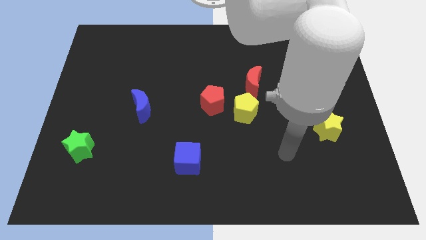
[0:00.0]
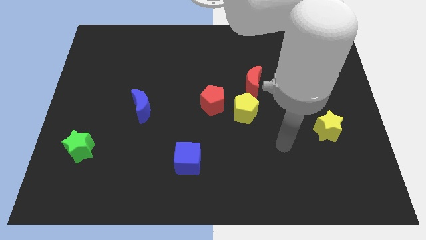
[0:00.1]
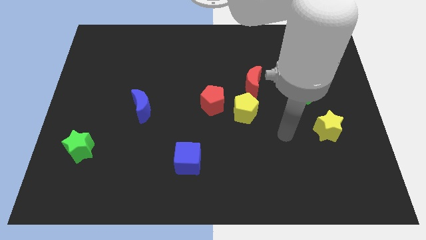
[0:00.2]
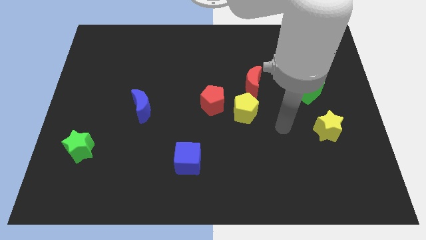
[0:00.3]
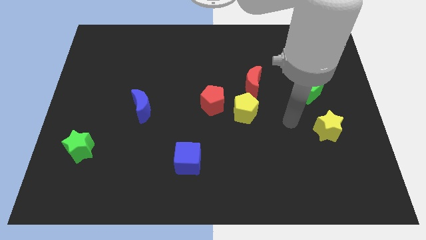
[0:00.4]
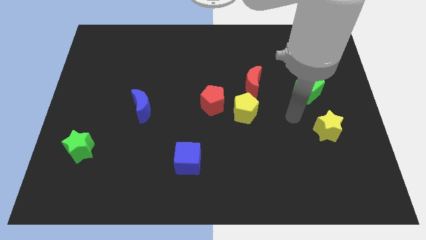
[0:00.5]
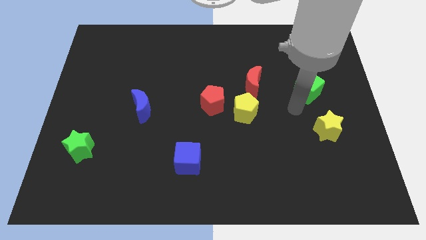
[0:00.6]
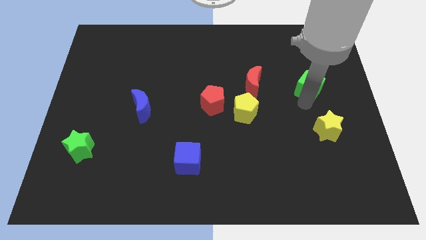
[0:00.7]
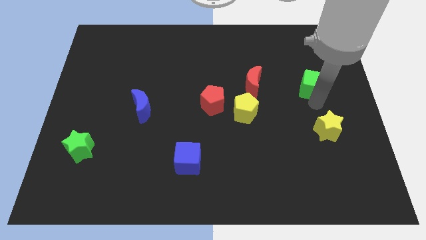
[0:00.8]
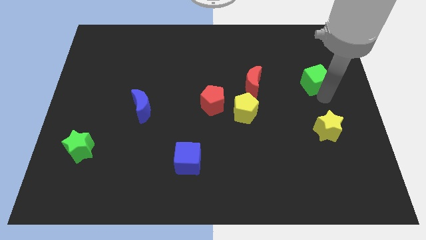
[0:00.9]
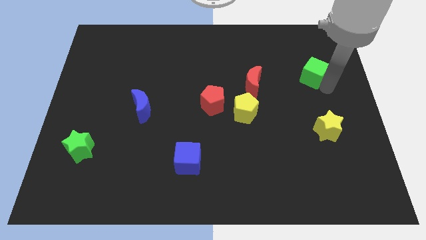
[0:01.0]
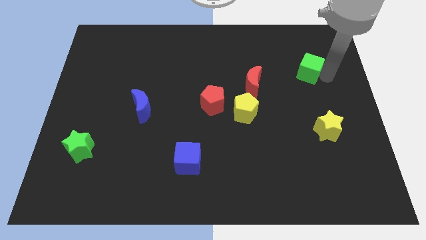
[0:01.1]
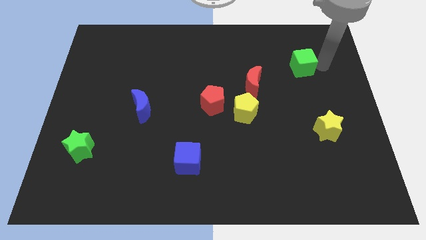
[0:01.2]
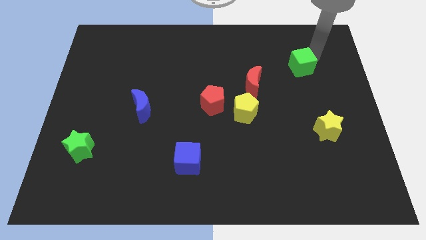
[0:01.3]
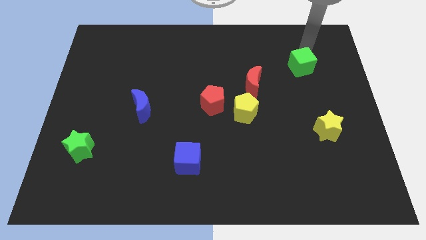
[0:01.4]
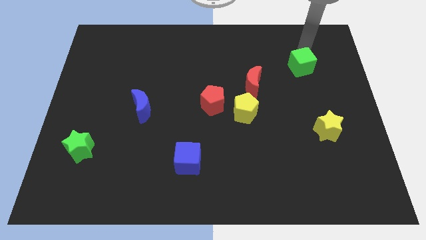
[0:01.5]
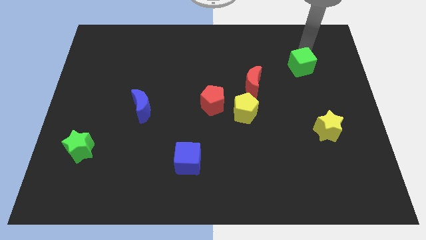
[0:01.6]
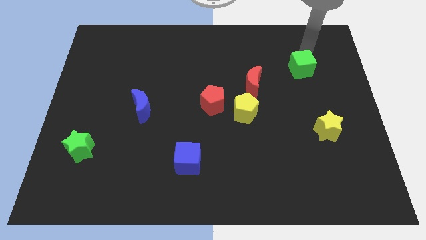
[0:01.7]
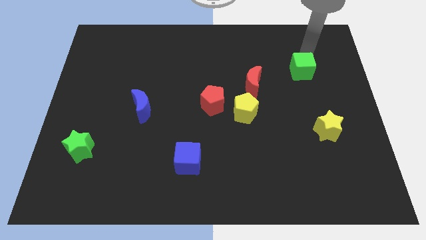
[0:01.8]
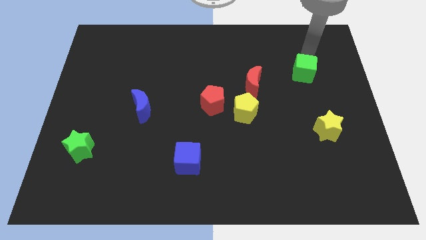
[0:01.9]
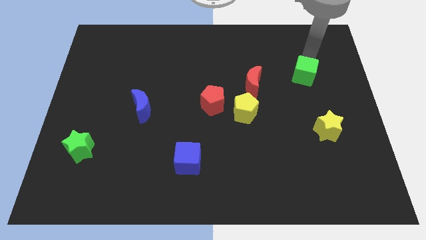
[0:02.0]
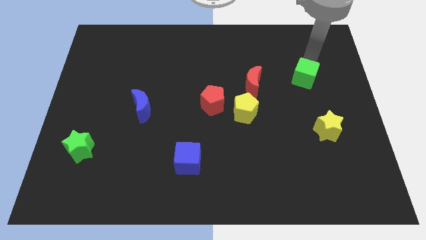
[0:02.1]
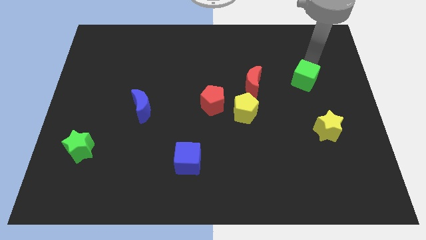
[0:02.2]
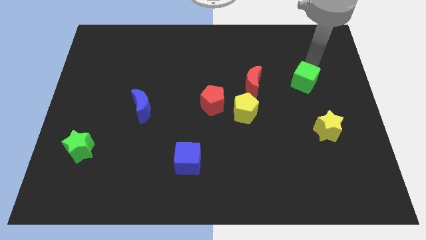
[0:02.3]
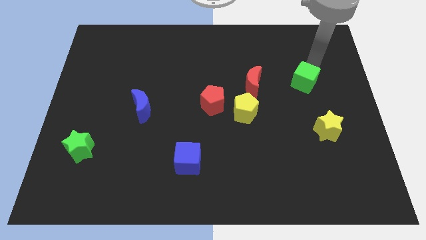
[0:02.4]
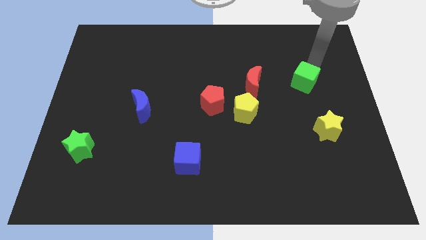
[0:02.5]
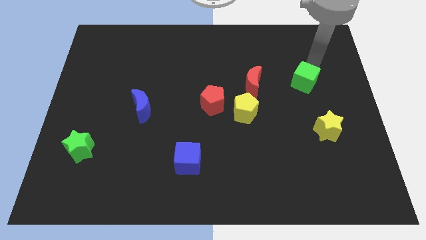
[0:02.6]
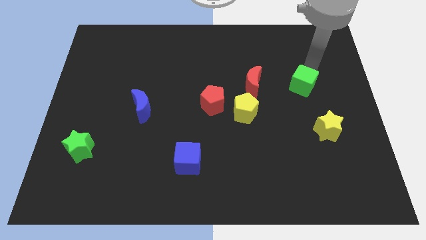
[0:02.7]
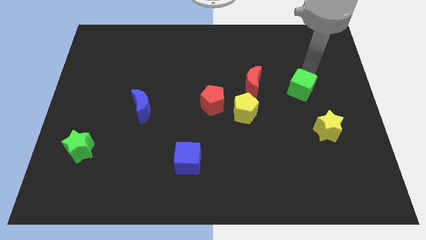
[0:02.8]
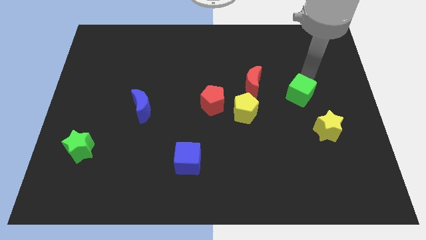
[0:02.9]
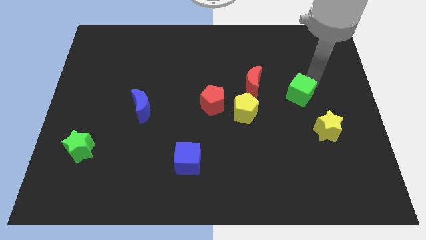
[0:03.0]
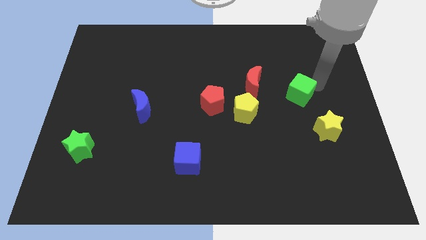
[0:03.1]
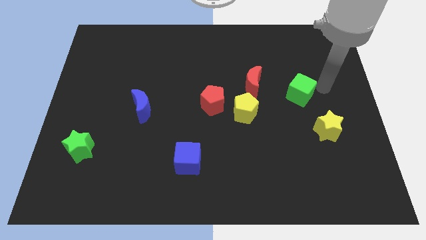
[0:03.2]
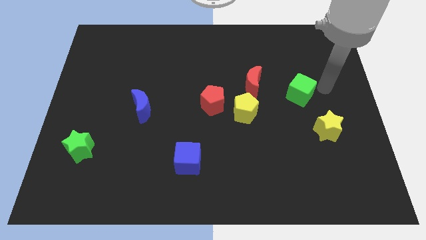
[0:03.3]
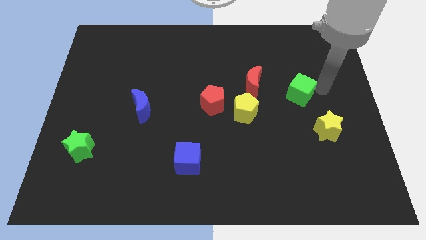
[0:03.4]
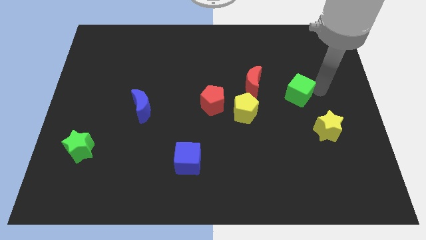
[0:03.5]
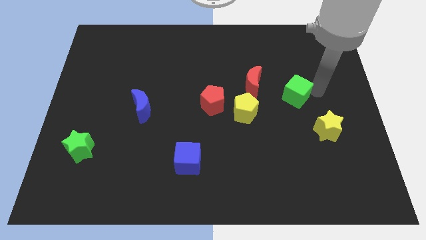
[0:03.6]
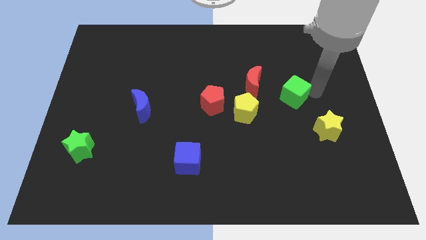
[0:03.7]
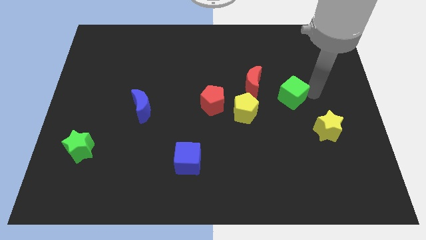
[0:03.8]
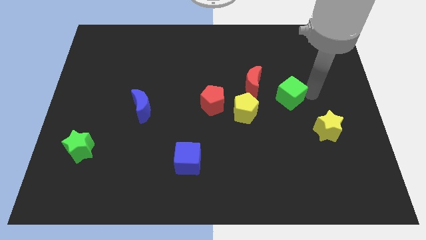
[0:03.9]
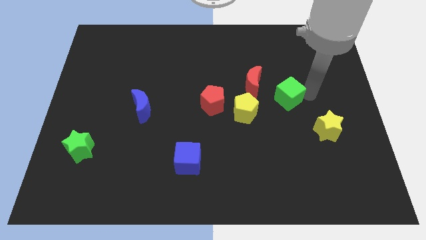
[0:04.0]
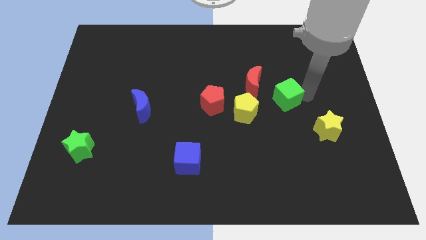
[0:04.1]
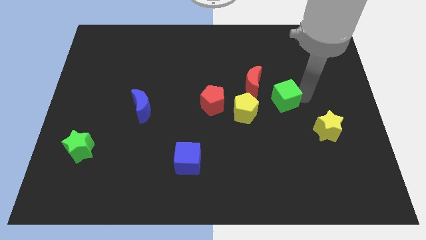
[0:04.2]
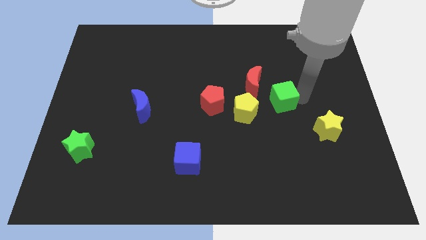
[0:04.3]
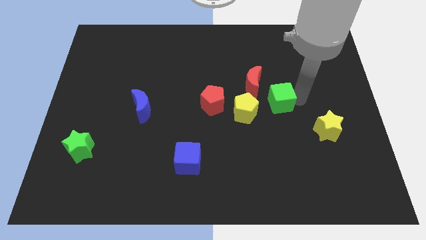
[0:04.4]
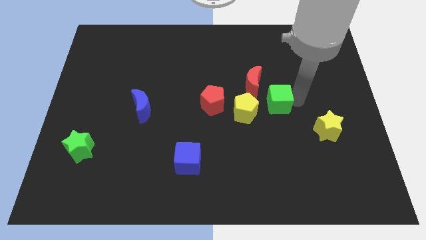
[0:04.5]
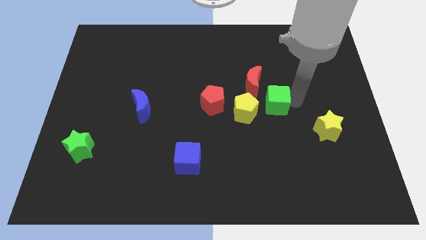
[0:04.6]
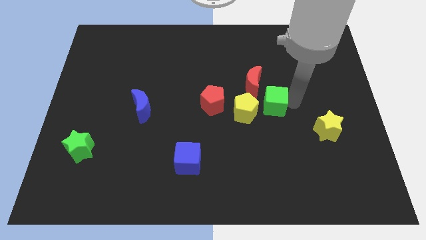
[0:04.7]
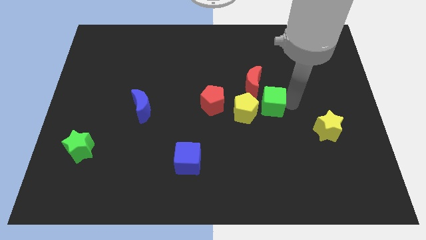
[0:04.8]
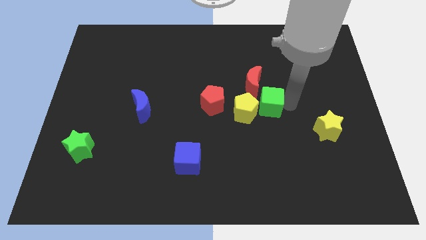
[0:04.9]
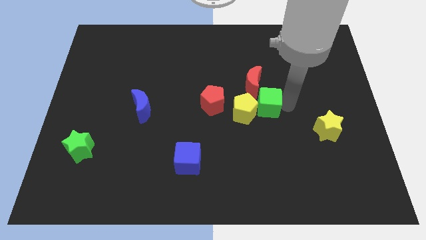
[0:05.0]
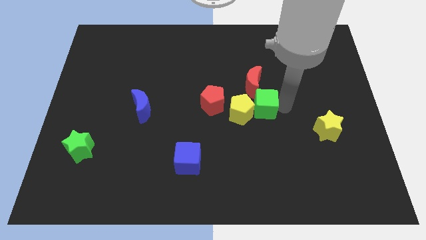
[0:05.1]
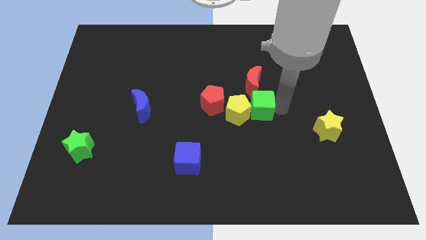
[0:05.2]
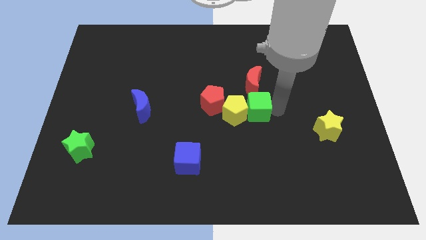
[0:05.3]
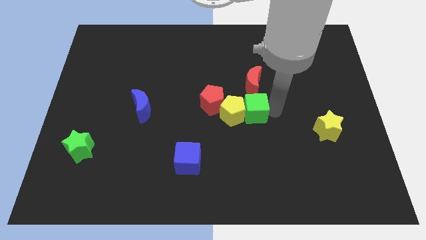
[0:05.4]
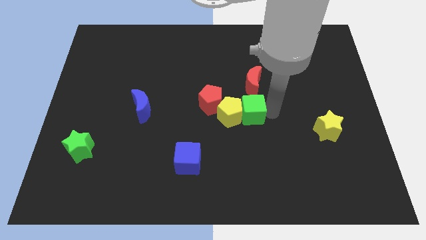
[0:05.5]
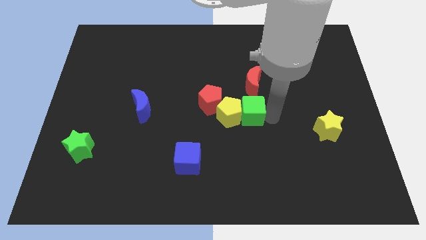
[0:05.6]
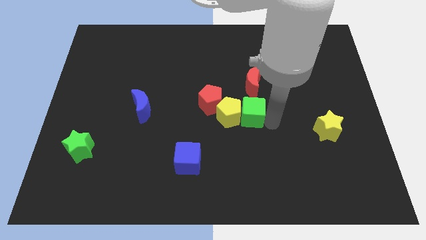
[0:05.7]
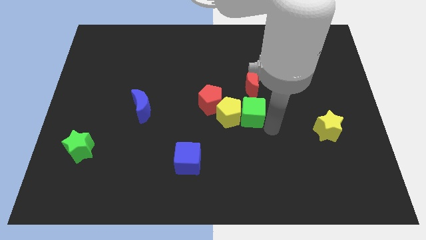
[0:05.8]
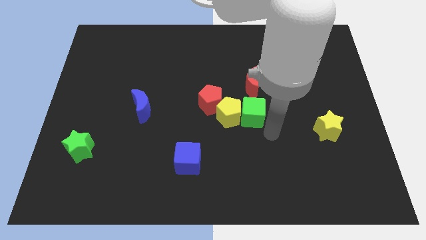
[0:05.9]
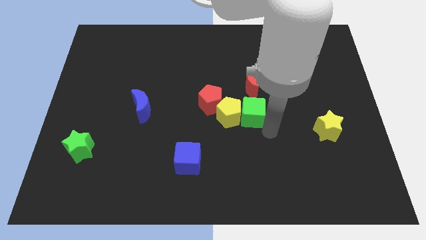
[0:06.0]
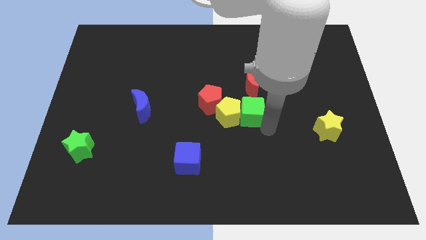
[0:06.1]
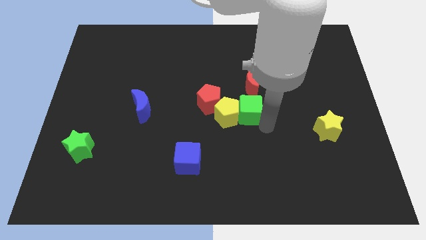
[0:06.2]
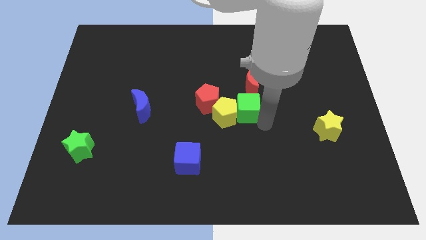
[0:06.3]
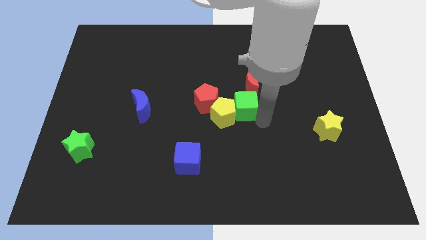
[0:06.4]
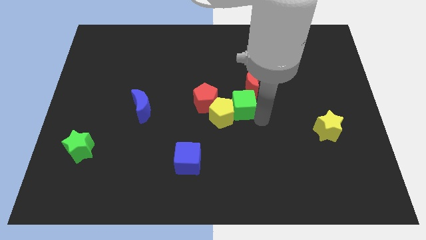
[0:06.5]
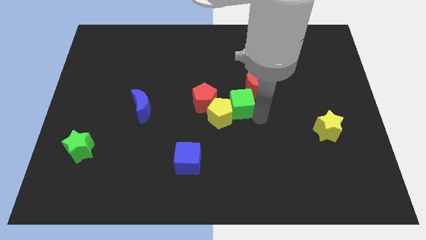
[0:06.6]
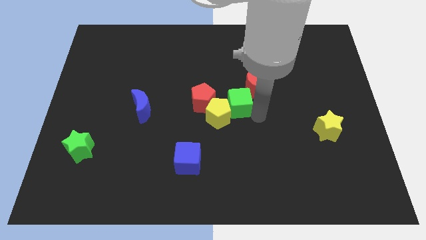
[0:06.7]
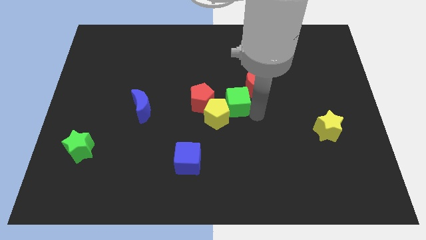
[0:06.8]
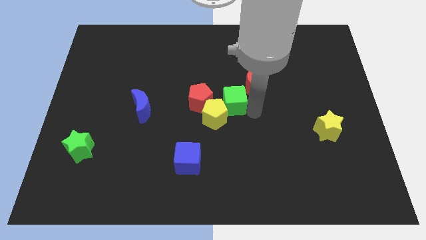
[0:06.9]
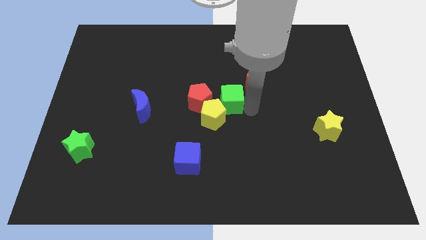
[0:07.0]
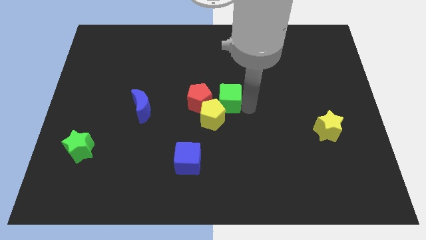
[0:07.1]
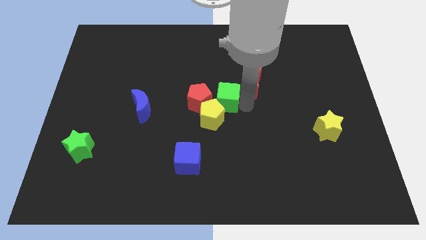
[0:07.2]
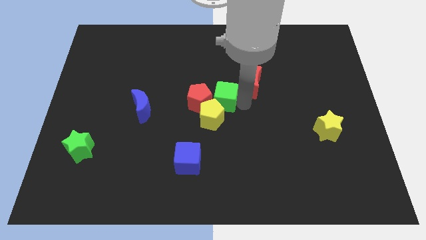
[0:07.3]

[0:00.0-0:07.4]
push the green cube to the left

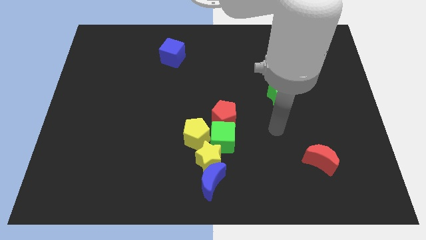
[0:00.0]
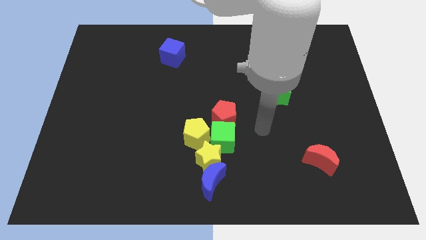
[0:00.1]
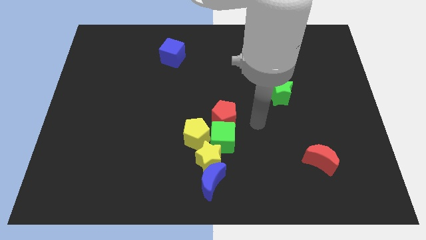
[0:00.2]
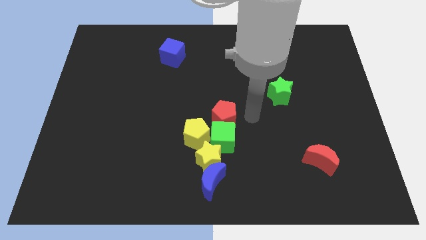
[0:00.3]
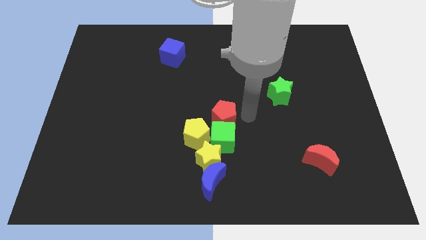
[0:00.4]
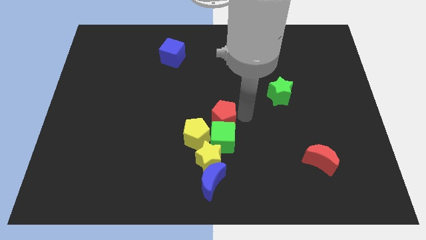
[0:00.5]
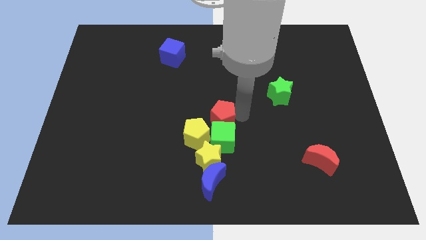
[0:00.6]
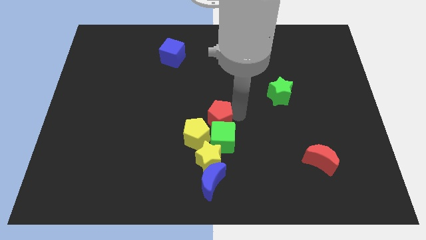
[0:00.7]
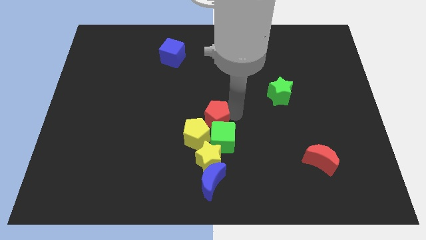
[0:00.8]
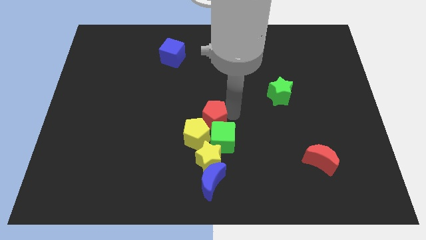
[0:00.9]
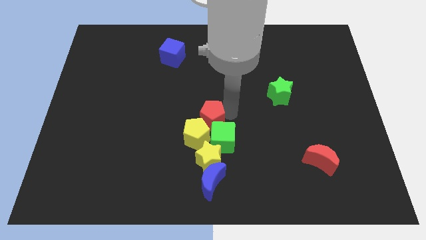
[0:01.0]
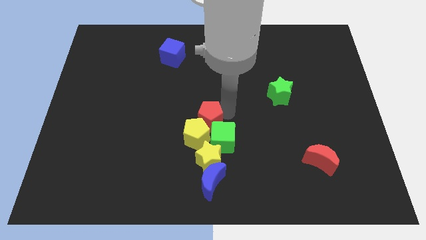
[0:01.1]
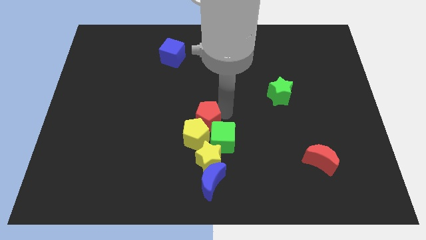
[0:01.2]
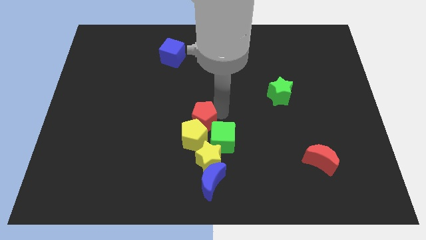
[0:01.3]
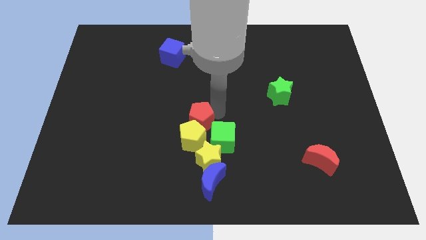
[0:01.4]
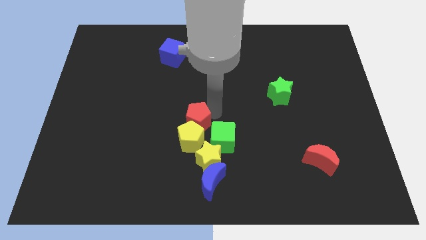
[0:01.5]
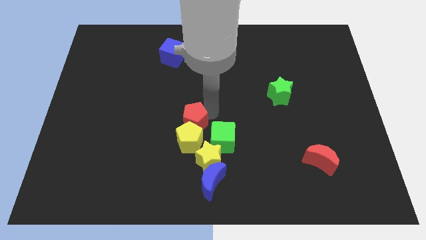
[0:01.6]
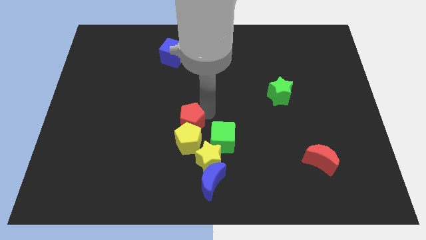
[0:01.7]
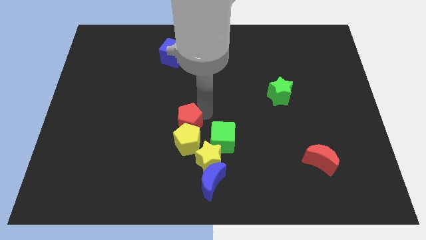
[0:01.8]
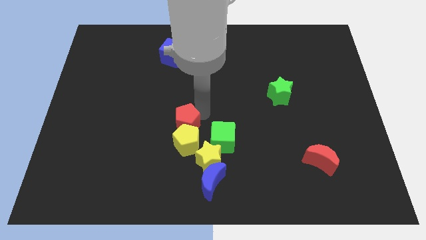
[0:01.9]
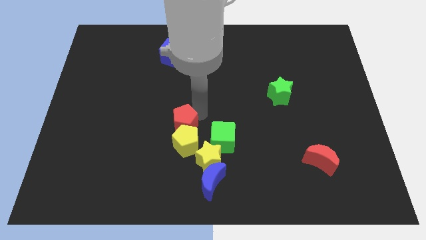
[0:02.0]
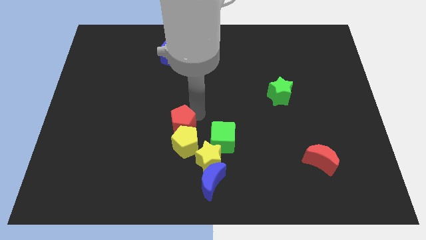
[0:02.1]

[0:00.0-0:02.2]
move the red pentagon downwards and left a bit
